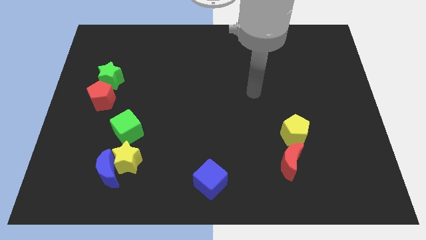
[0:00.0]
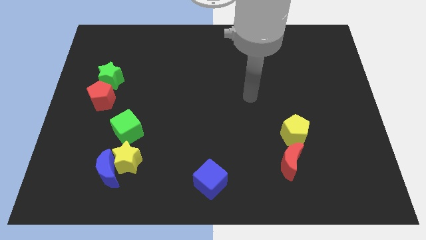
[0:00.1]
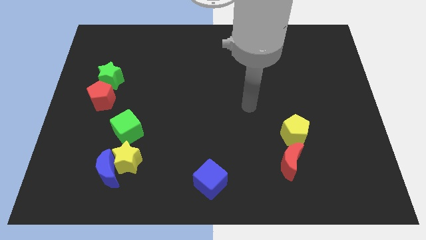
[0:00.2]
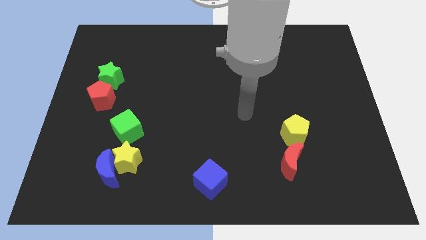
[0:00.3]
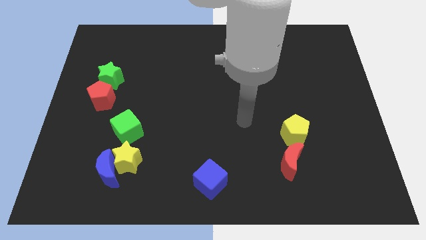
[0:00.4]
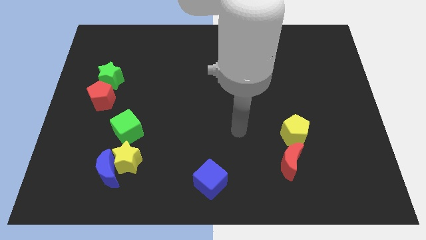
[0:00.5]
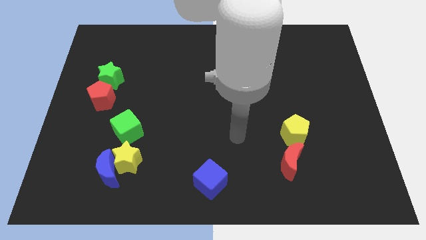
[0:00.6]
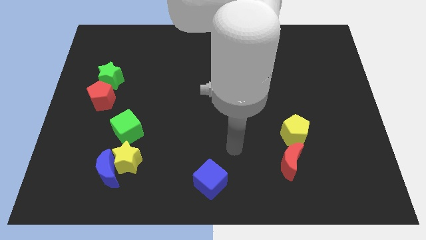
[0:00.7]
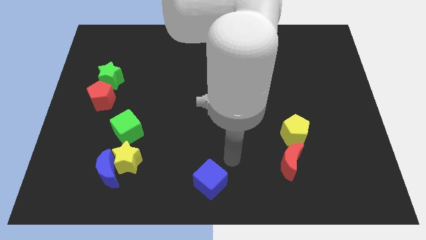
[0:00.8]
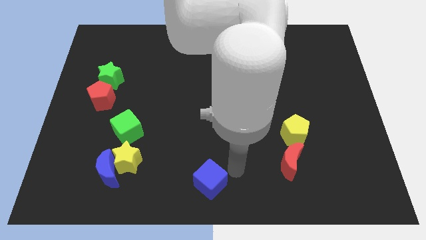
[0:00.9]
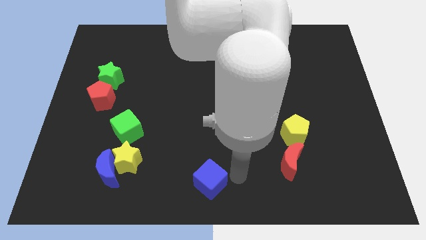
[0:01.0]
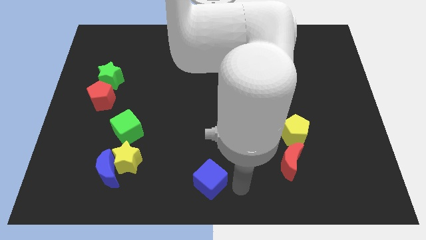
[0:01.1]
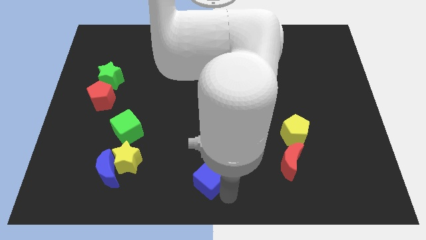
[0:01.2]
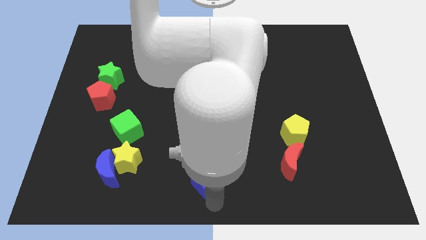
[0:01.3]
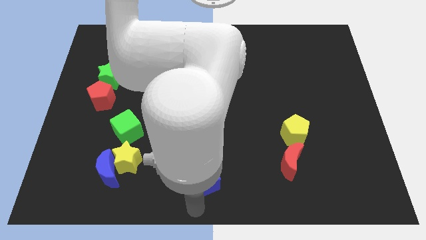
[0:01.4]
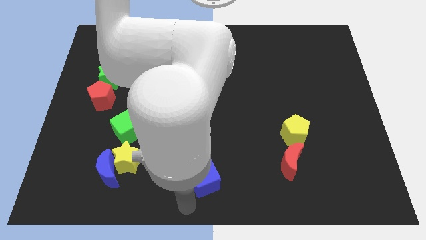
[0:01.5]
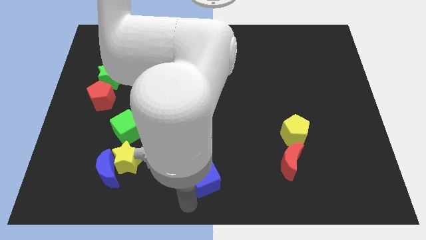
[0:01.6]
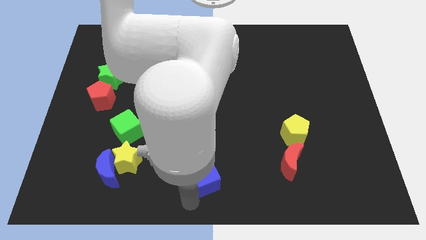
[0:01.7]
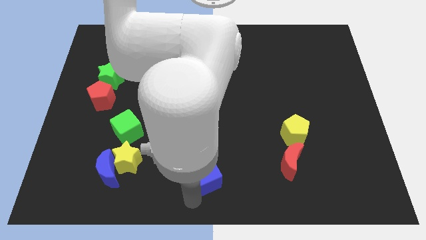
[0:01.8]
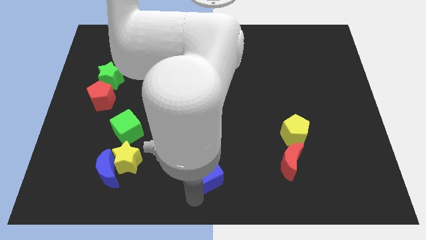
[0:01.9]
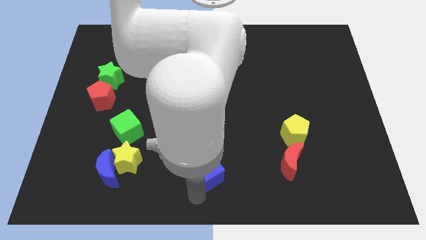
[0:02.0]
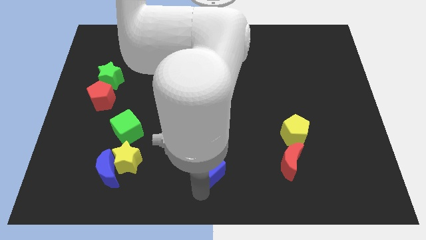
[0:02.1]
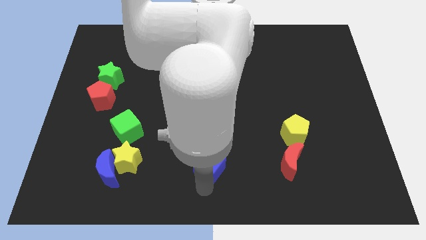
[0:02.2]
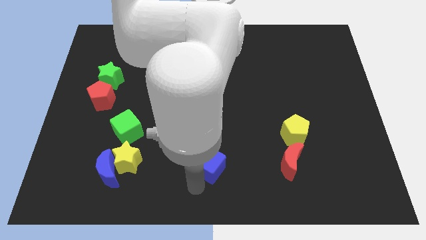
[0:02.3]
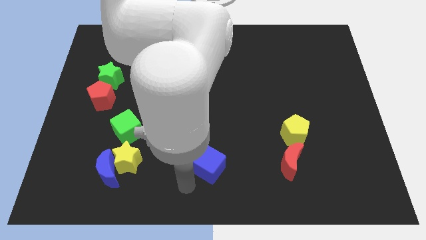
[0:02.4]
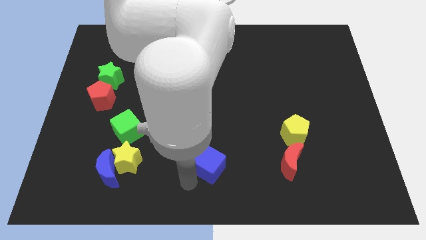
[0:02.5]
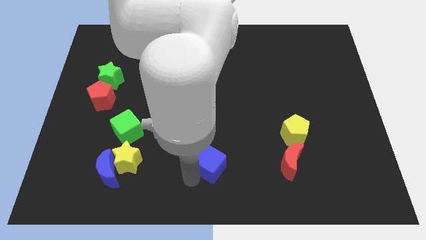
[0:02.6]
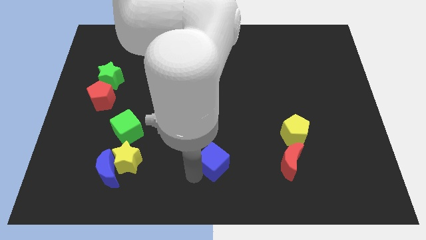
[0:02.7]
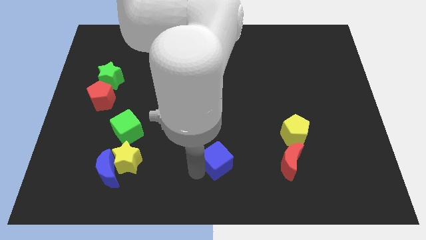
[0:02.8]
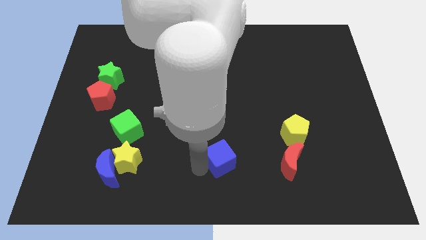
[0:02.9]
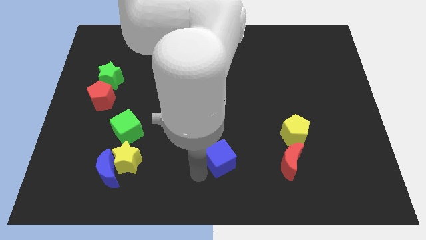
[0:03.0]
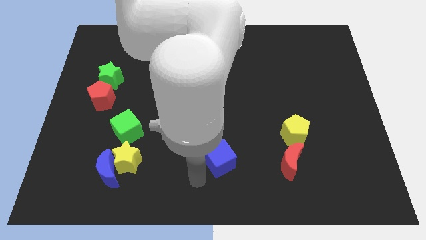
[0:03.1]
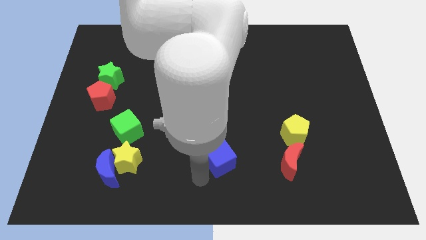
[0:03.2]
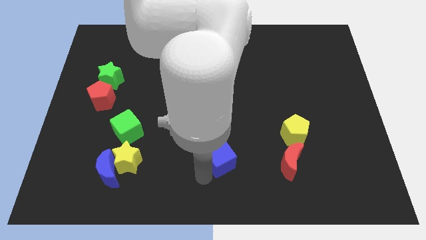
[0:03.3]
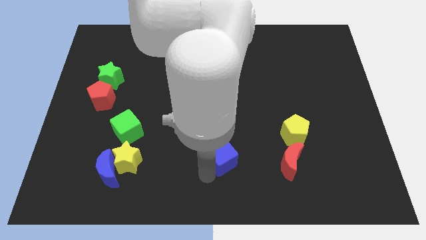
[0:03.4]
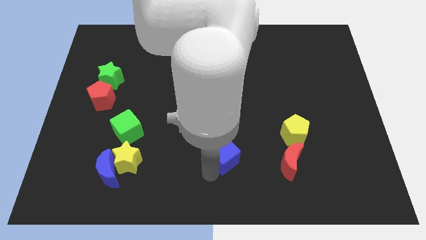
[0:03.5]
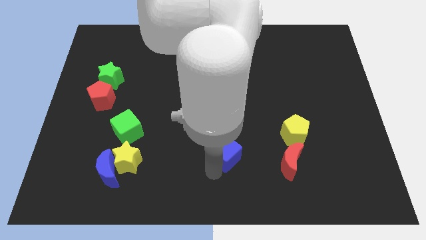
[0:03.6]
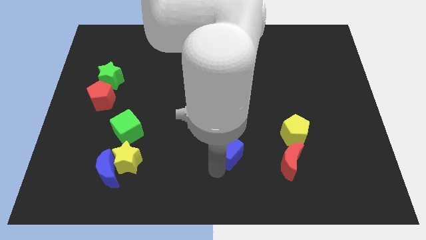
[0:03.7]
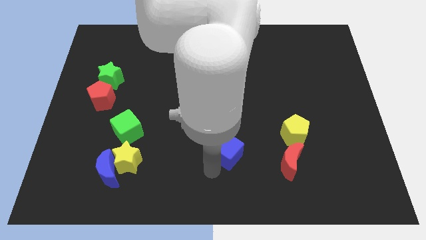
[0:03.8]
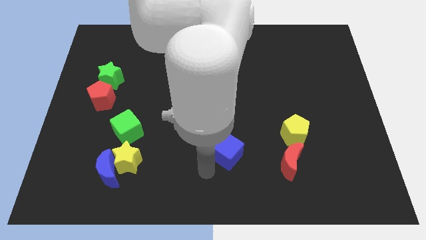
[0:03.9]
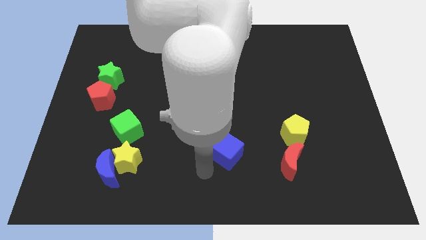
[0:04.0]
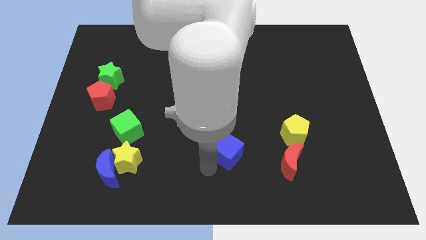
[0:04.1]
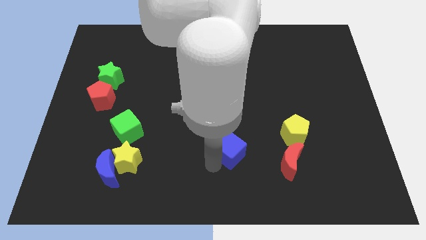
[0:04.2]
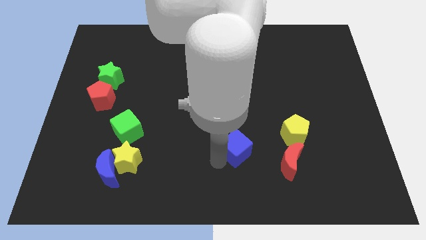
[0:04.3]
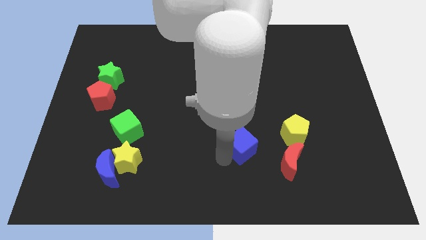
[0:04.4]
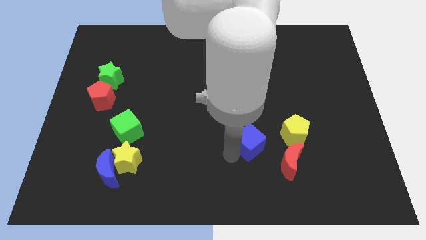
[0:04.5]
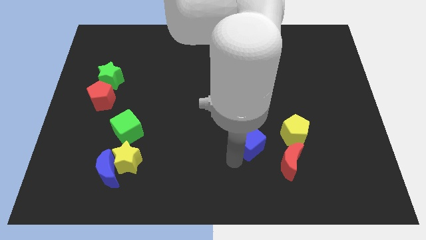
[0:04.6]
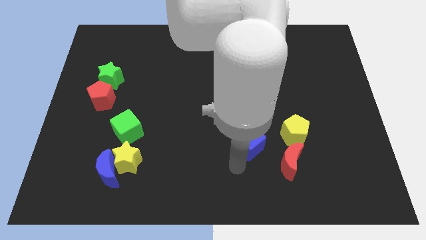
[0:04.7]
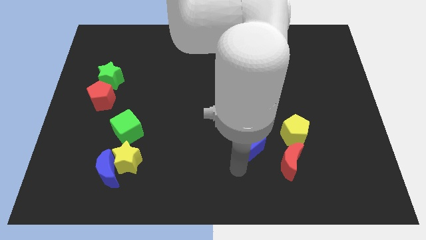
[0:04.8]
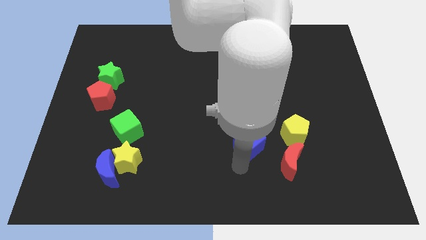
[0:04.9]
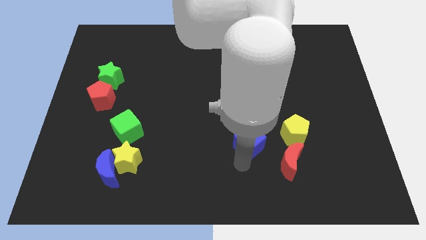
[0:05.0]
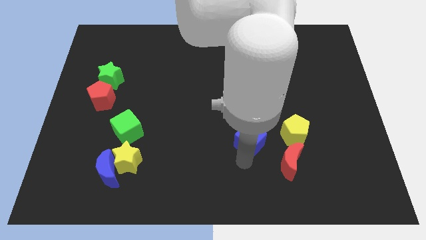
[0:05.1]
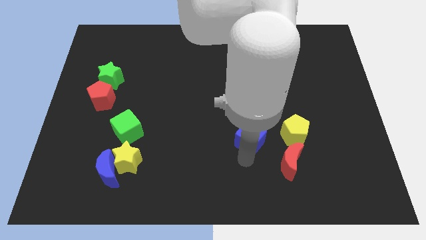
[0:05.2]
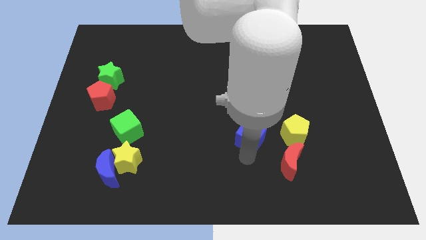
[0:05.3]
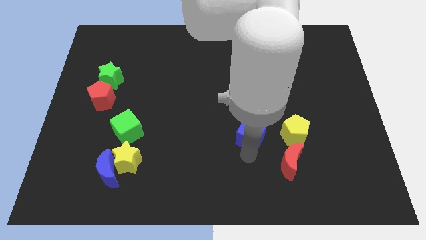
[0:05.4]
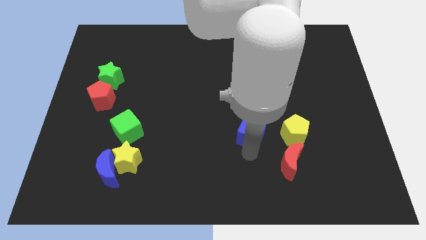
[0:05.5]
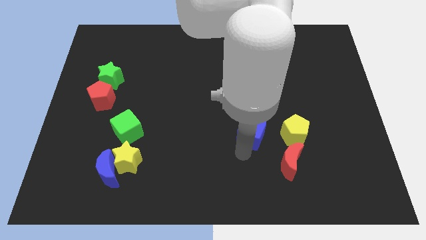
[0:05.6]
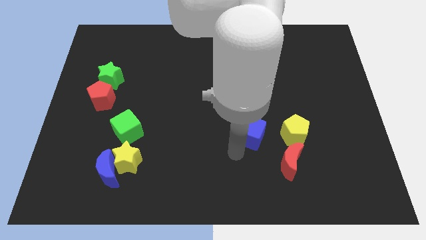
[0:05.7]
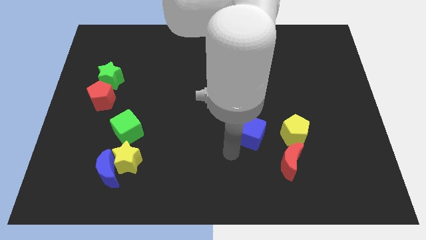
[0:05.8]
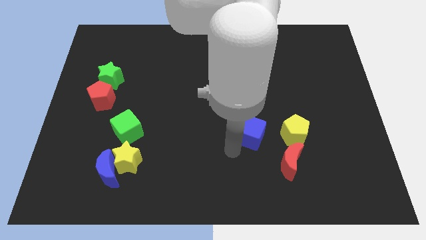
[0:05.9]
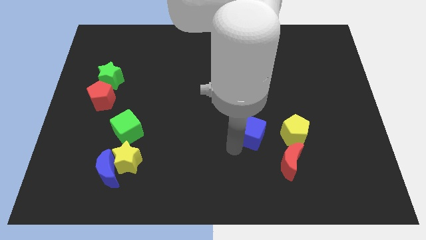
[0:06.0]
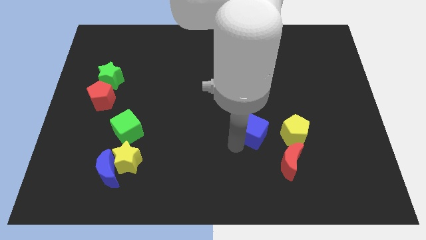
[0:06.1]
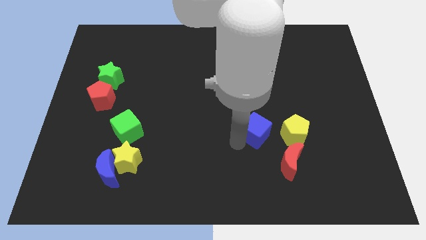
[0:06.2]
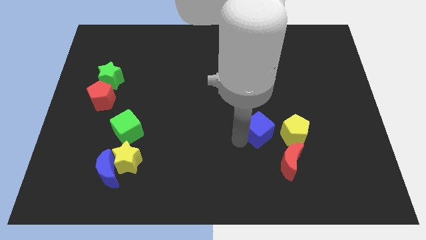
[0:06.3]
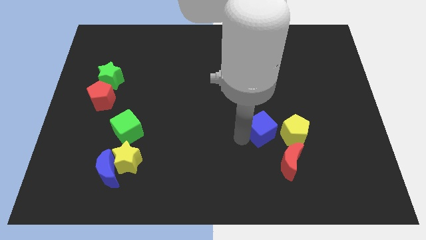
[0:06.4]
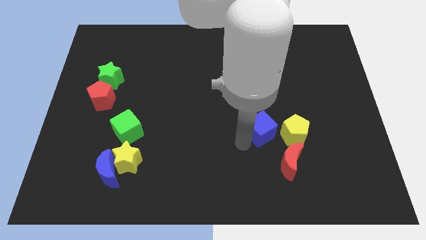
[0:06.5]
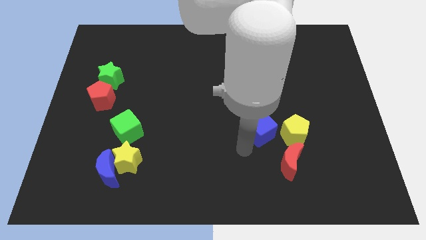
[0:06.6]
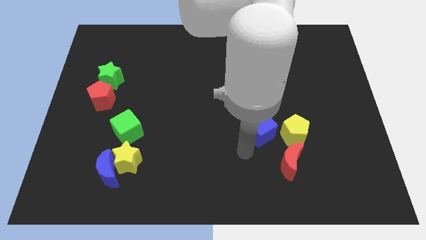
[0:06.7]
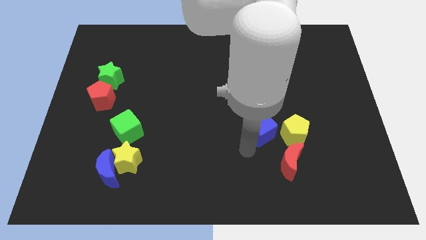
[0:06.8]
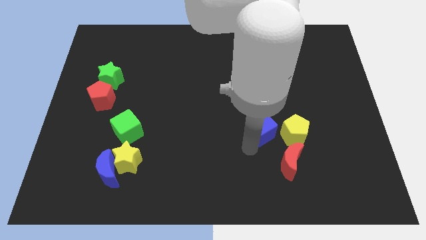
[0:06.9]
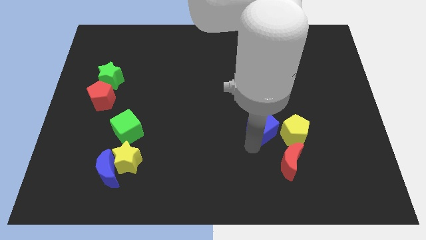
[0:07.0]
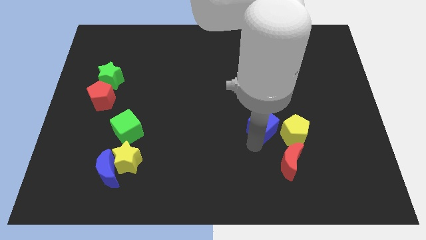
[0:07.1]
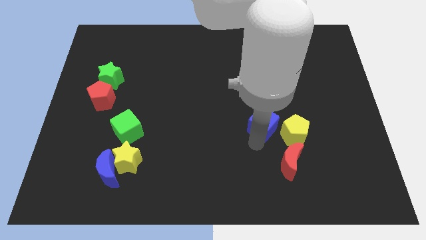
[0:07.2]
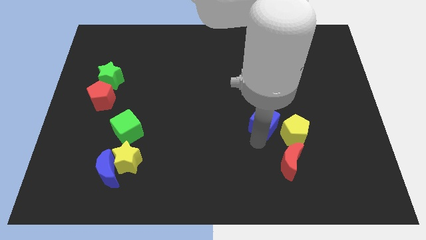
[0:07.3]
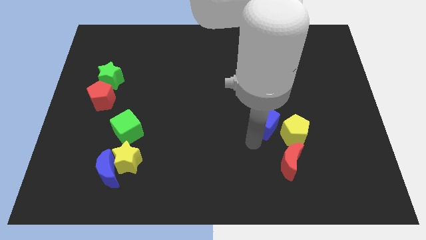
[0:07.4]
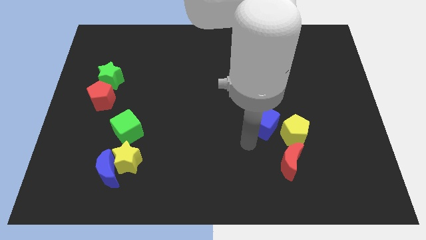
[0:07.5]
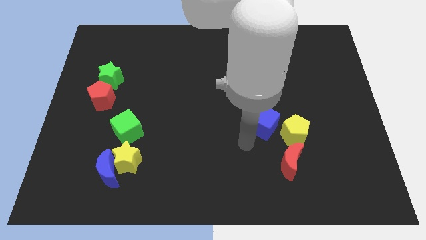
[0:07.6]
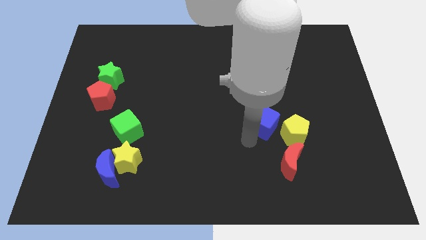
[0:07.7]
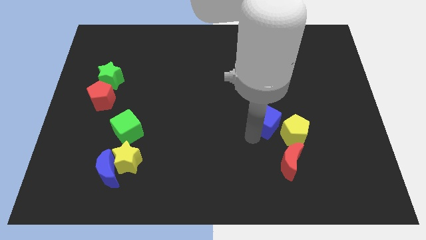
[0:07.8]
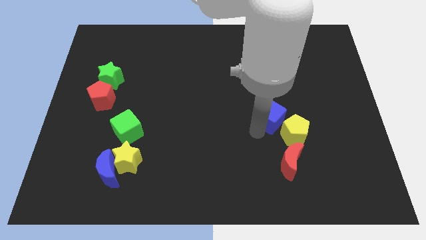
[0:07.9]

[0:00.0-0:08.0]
push the blue cube diagonally up and to the right
